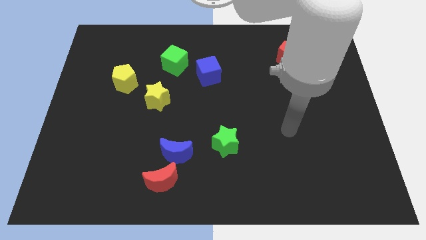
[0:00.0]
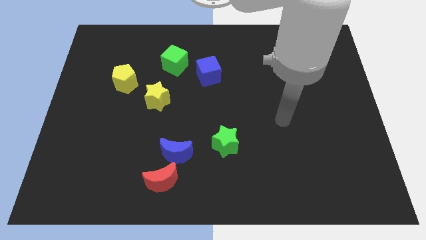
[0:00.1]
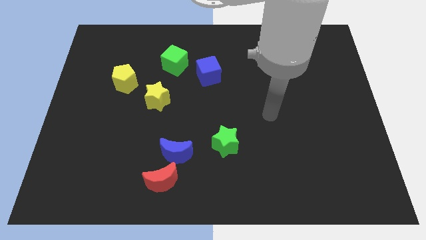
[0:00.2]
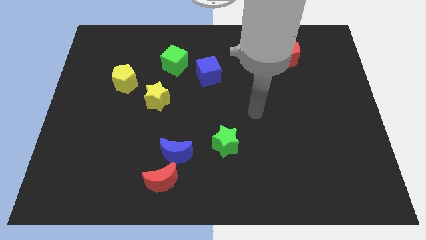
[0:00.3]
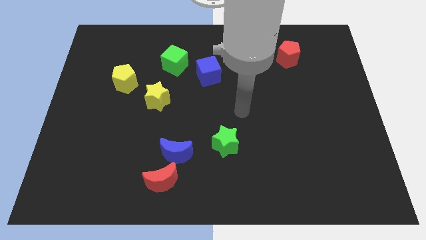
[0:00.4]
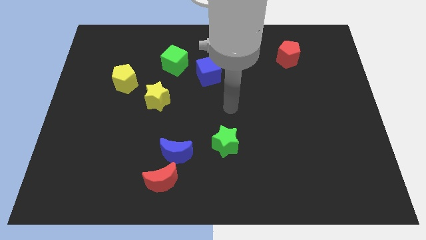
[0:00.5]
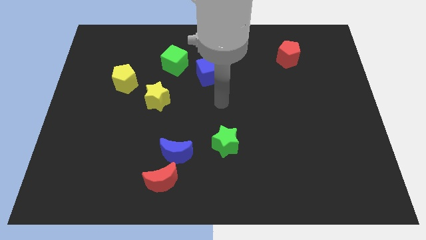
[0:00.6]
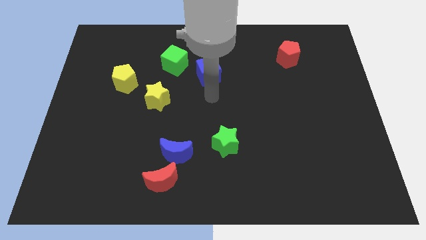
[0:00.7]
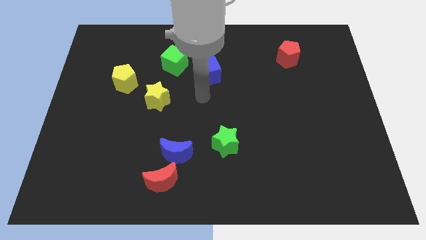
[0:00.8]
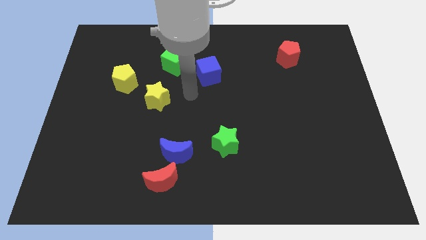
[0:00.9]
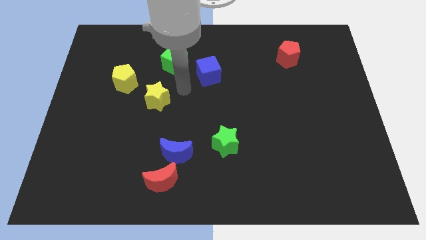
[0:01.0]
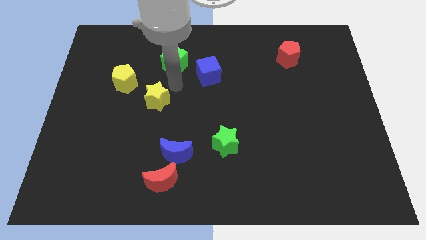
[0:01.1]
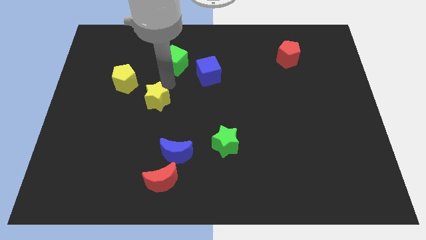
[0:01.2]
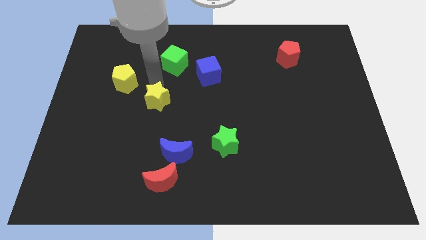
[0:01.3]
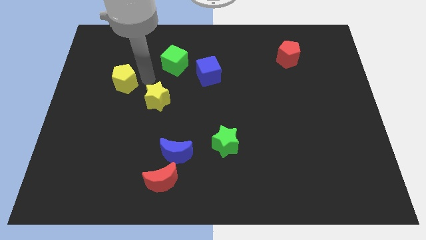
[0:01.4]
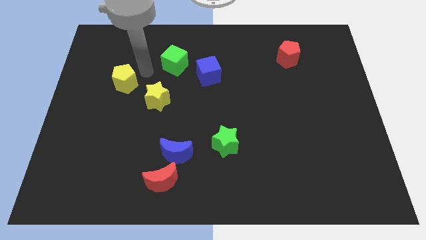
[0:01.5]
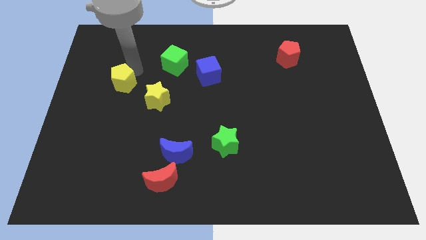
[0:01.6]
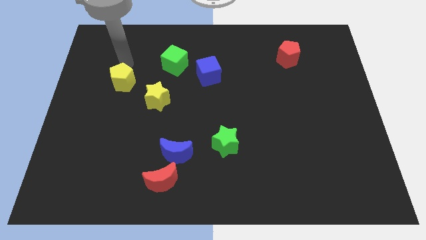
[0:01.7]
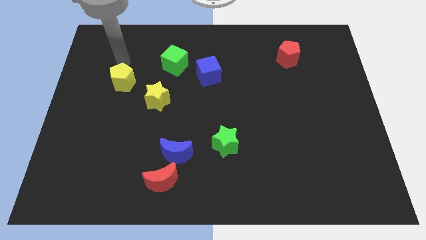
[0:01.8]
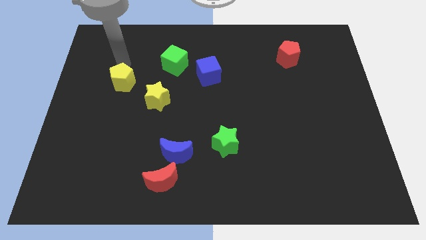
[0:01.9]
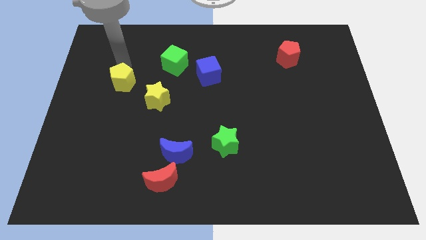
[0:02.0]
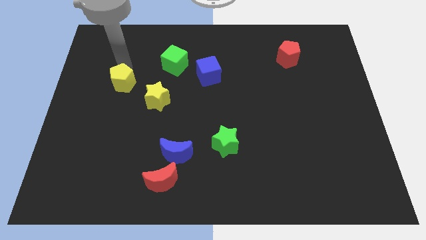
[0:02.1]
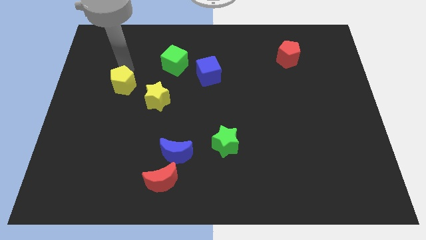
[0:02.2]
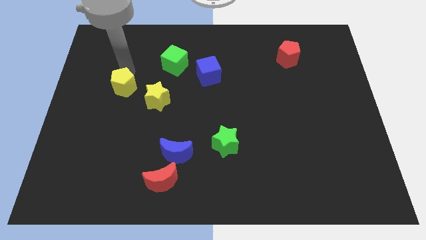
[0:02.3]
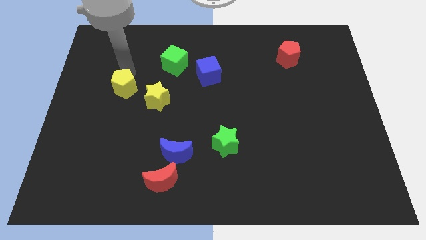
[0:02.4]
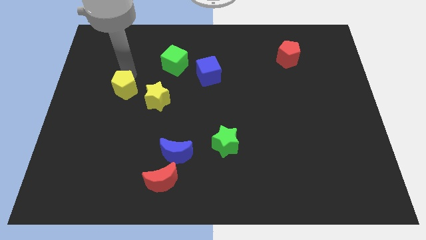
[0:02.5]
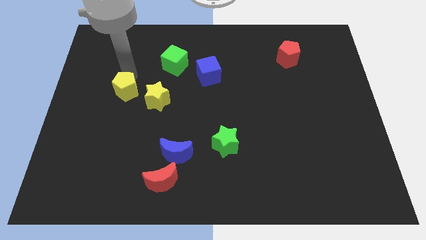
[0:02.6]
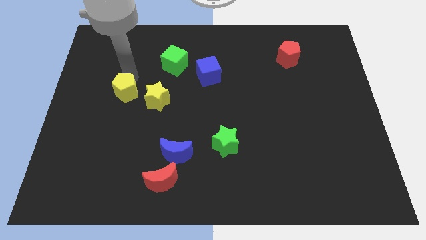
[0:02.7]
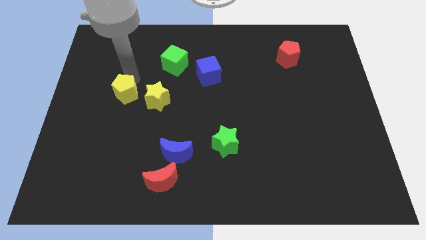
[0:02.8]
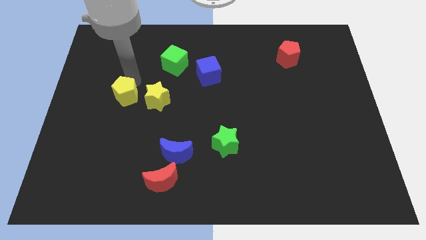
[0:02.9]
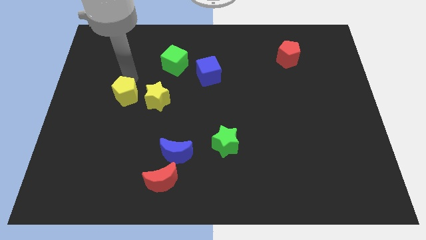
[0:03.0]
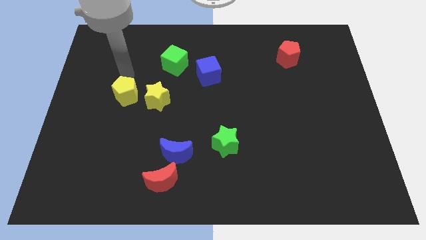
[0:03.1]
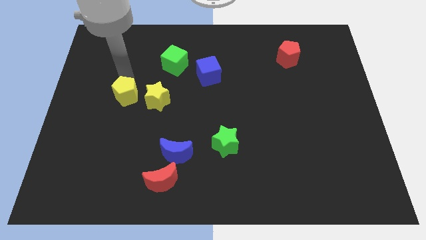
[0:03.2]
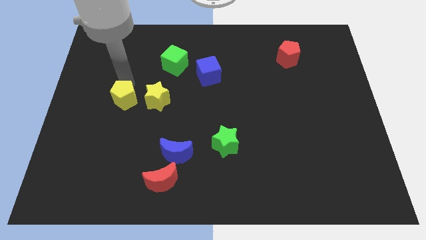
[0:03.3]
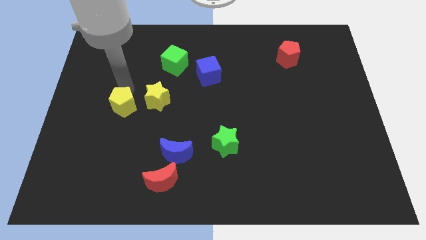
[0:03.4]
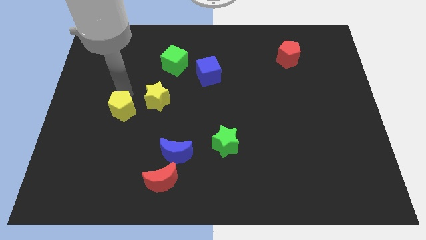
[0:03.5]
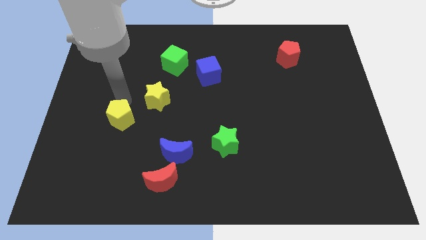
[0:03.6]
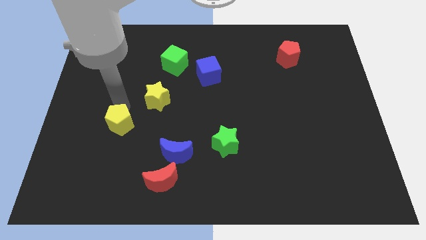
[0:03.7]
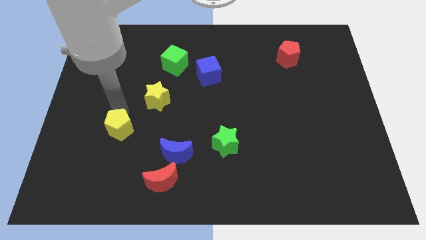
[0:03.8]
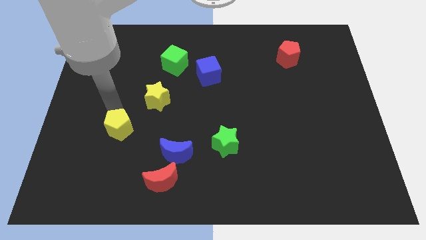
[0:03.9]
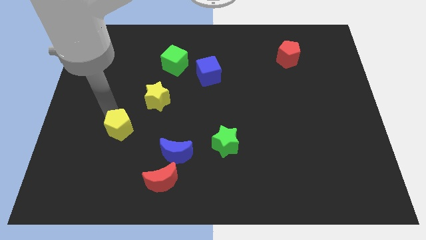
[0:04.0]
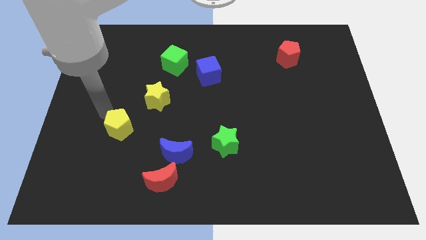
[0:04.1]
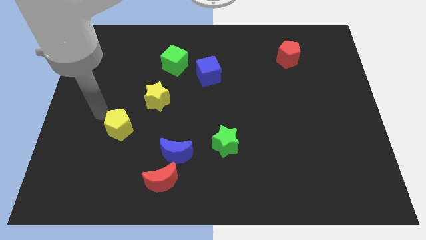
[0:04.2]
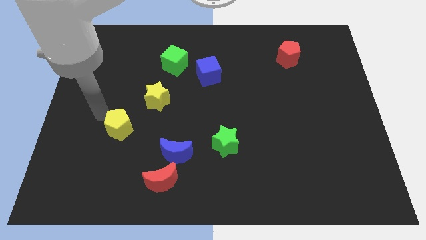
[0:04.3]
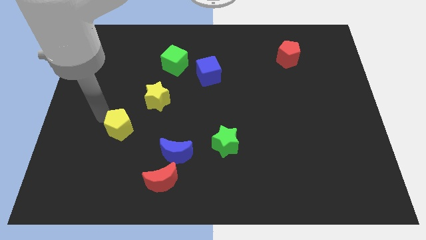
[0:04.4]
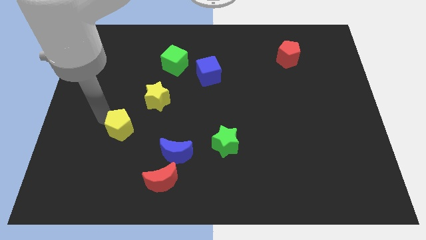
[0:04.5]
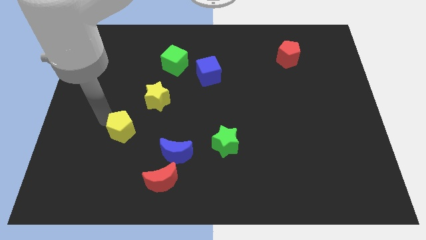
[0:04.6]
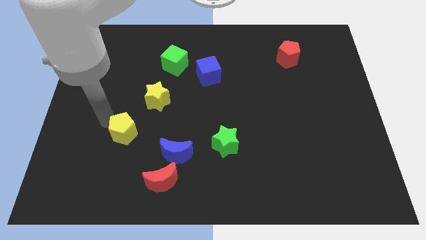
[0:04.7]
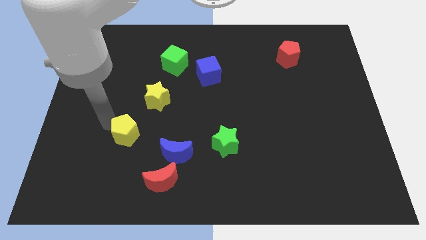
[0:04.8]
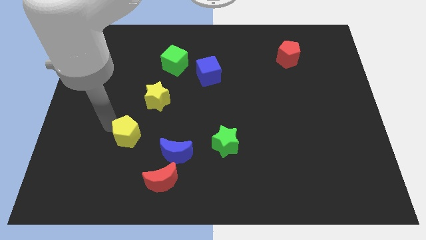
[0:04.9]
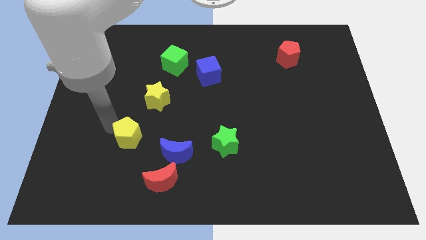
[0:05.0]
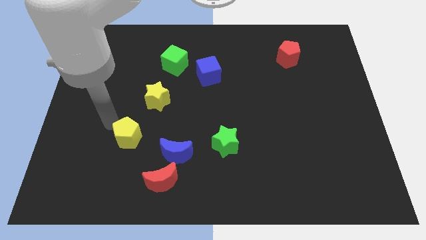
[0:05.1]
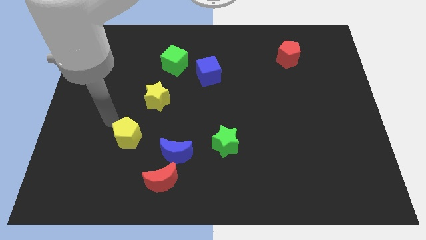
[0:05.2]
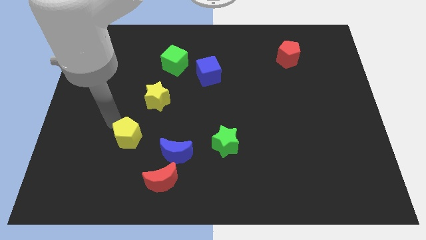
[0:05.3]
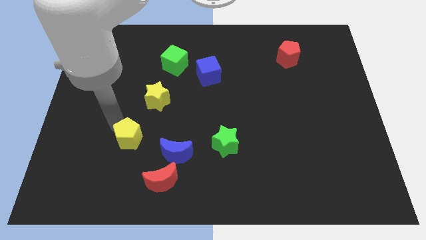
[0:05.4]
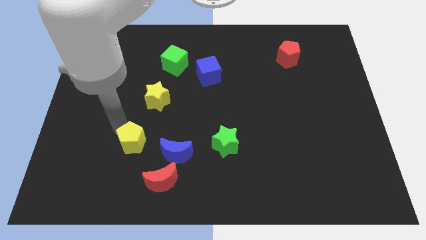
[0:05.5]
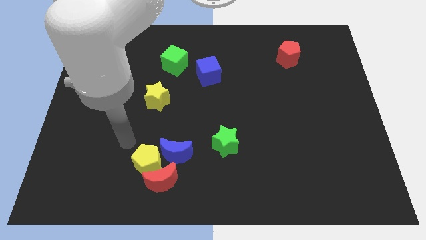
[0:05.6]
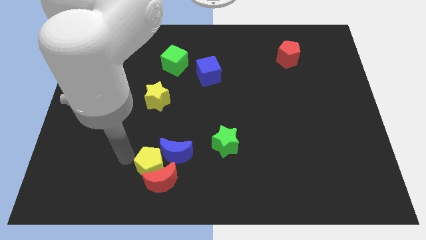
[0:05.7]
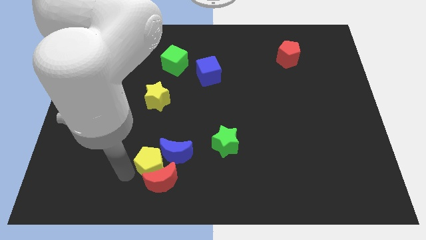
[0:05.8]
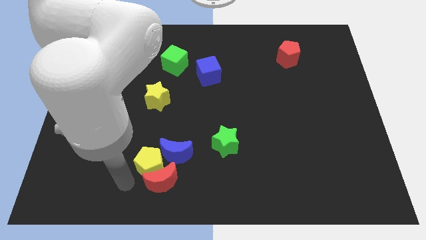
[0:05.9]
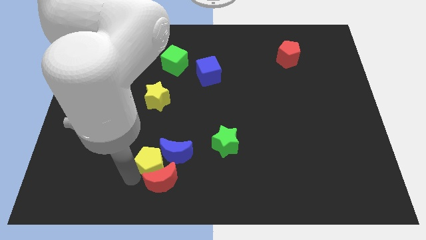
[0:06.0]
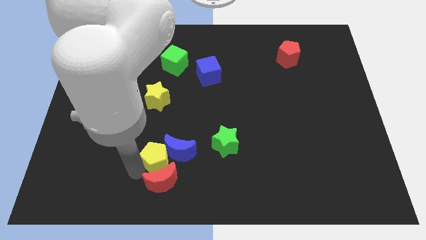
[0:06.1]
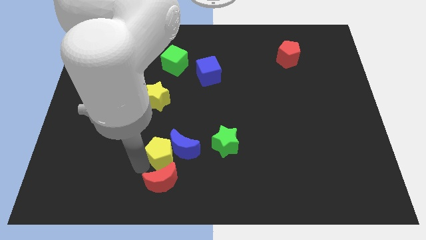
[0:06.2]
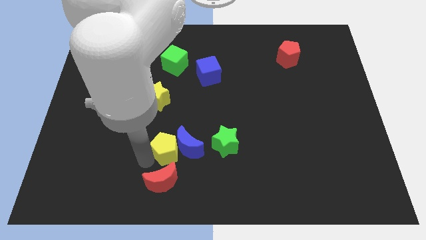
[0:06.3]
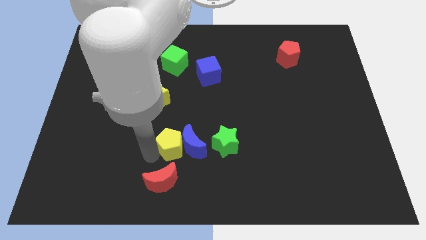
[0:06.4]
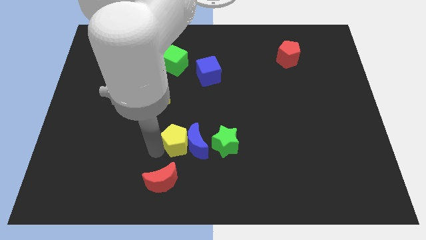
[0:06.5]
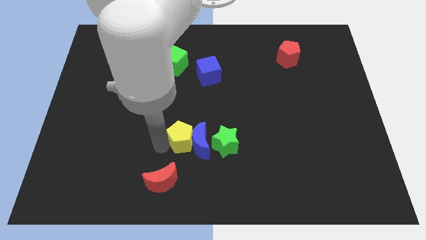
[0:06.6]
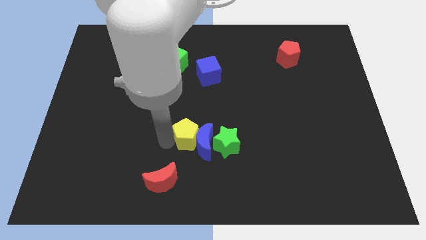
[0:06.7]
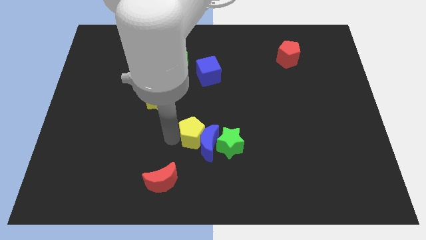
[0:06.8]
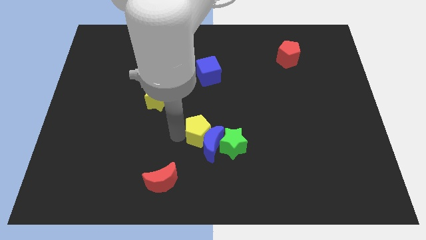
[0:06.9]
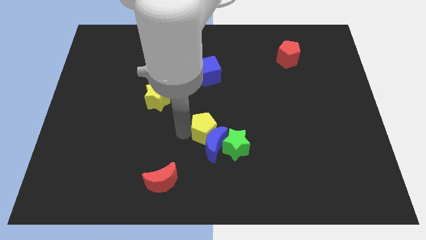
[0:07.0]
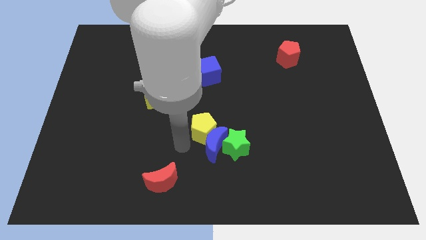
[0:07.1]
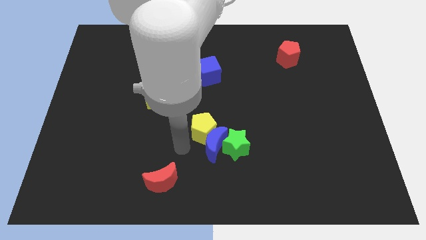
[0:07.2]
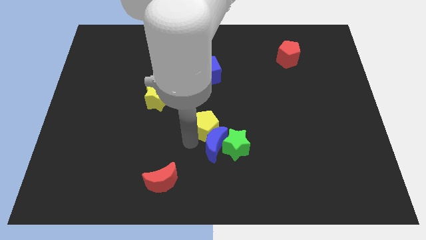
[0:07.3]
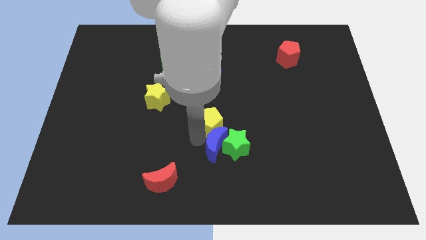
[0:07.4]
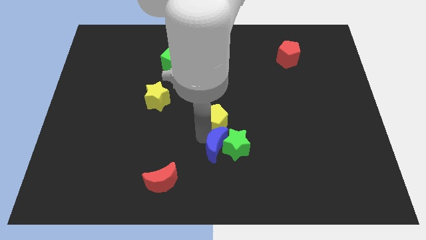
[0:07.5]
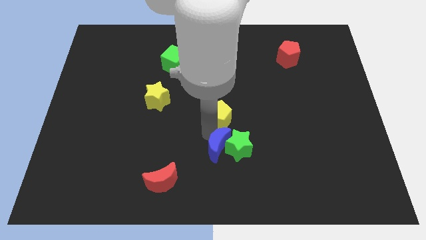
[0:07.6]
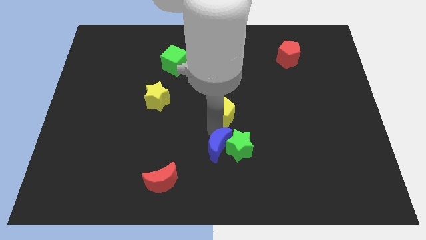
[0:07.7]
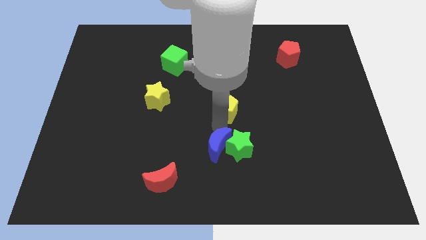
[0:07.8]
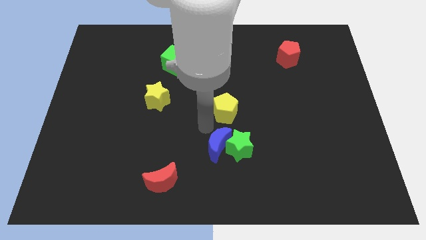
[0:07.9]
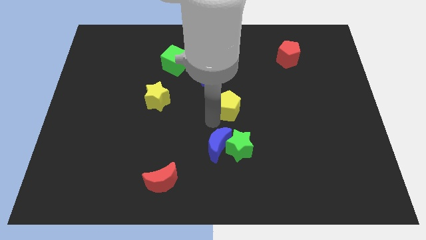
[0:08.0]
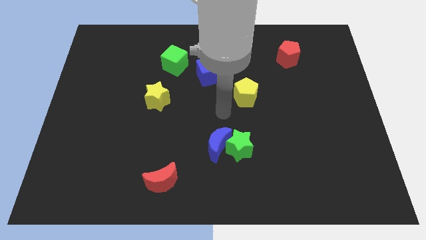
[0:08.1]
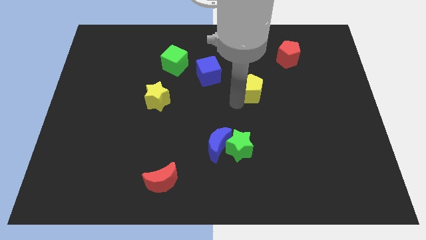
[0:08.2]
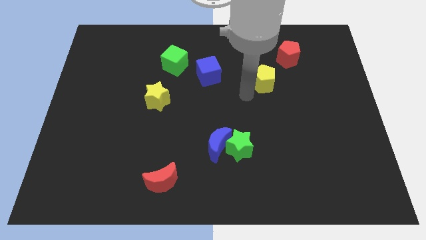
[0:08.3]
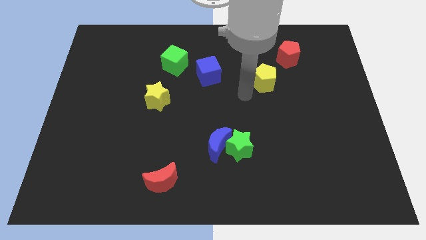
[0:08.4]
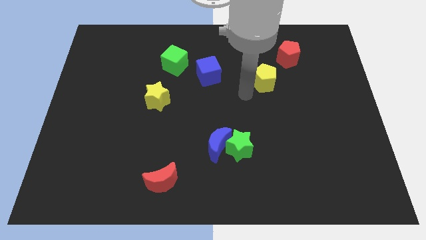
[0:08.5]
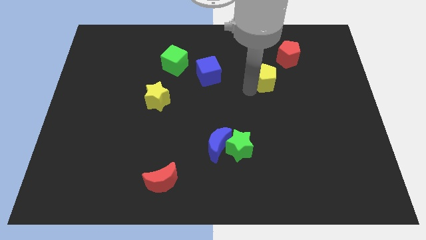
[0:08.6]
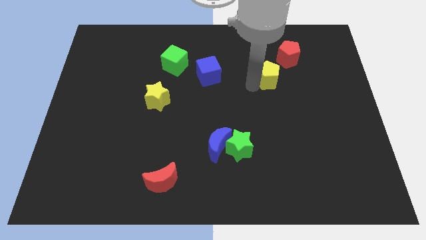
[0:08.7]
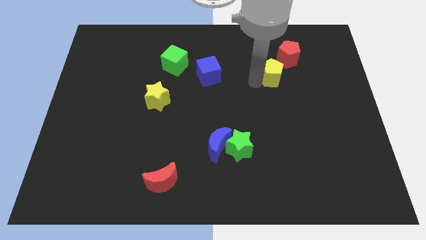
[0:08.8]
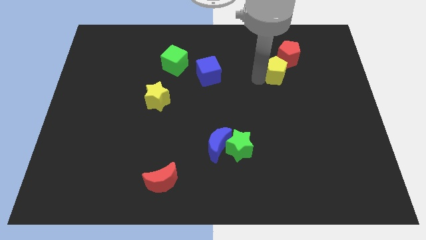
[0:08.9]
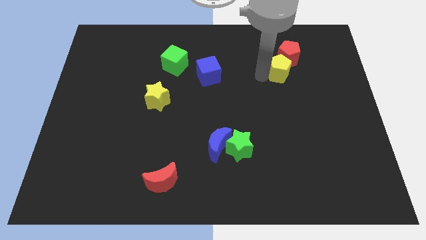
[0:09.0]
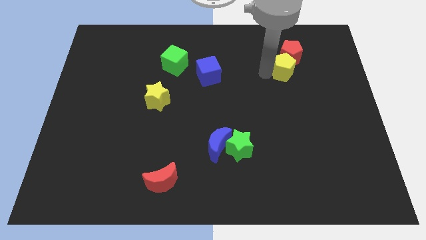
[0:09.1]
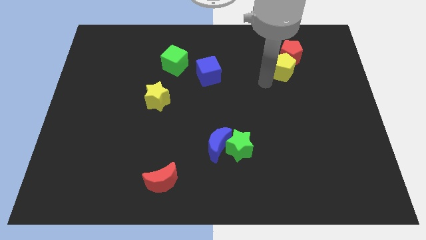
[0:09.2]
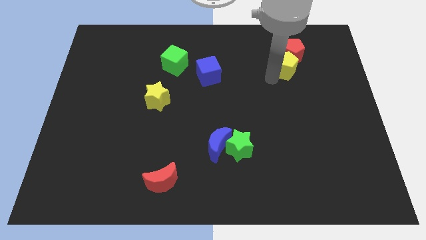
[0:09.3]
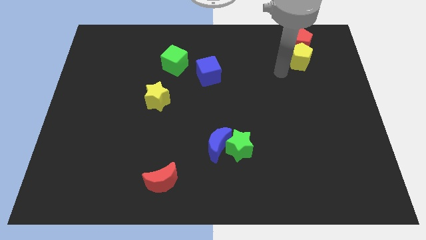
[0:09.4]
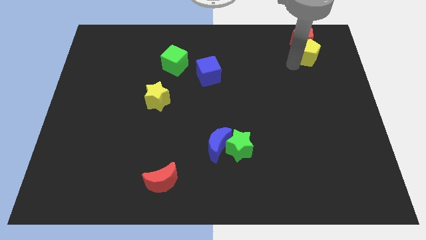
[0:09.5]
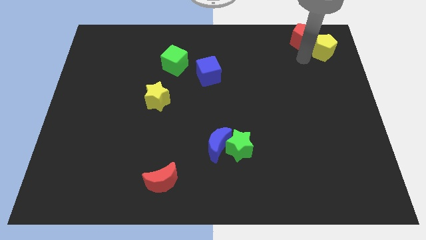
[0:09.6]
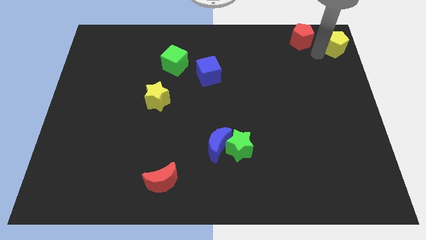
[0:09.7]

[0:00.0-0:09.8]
put the yellow pentagon to the top right corner
